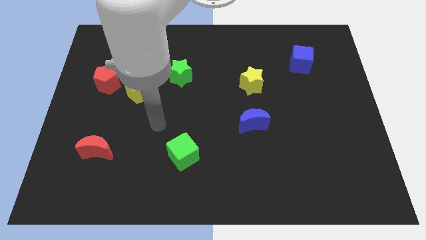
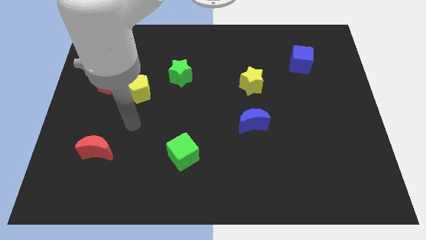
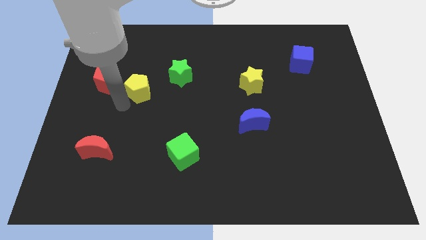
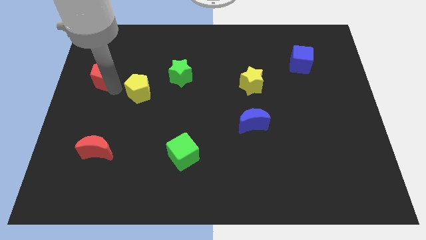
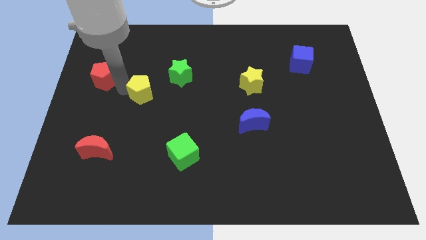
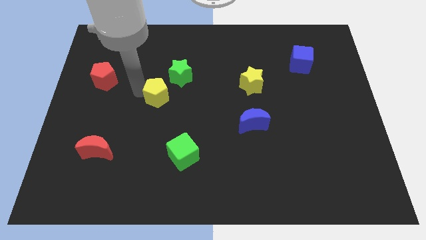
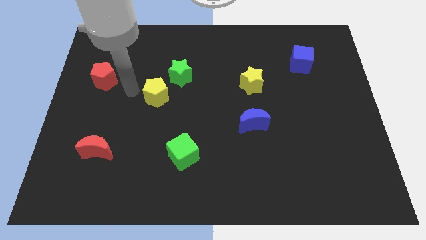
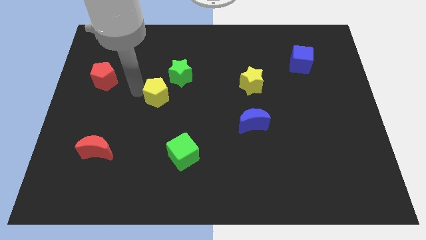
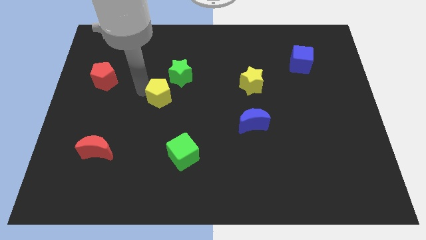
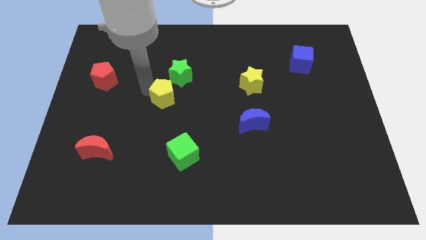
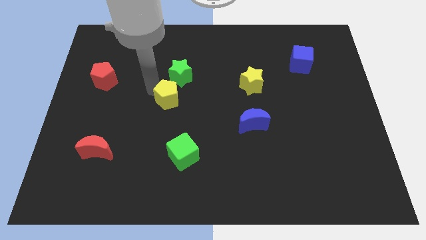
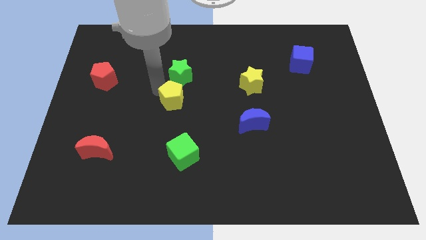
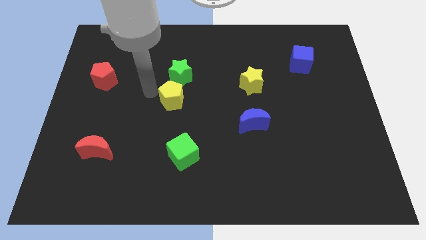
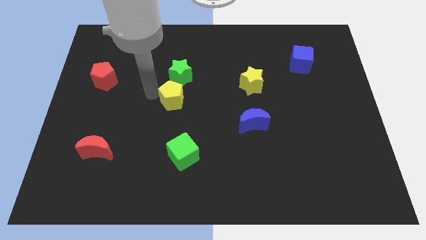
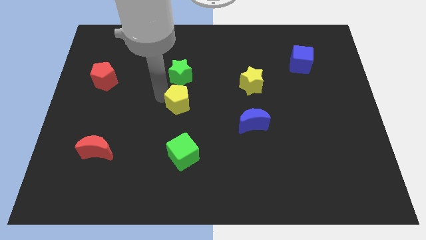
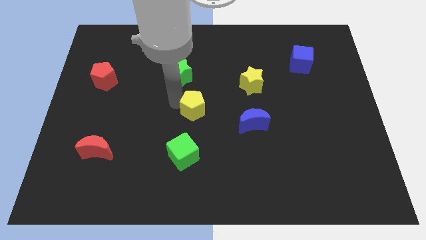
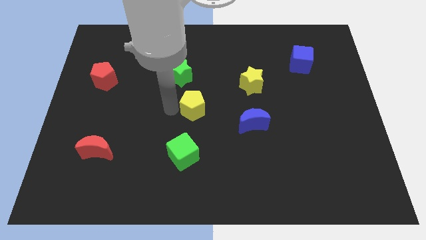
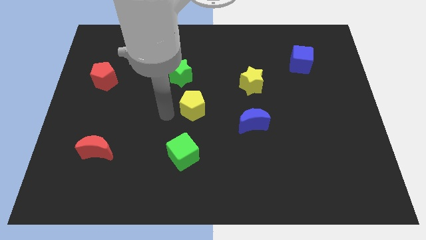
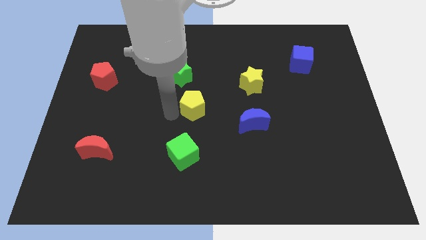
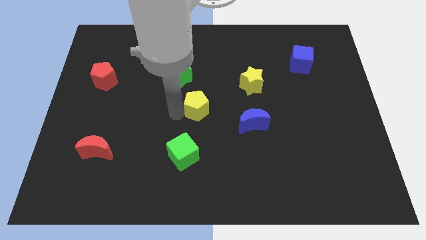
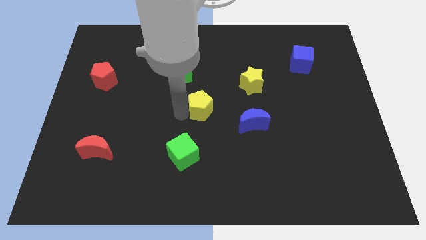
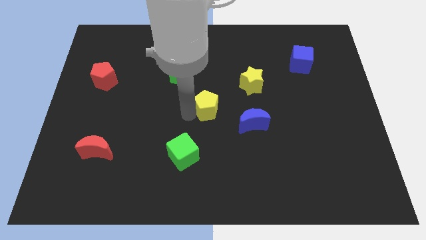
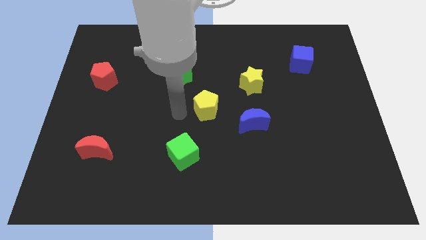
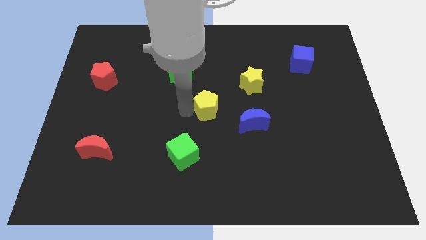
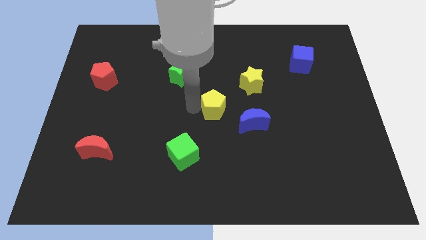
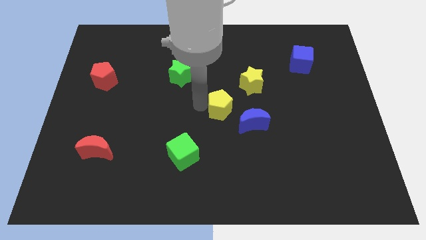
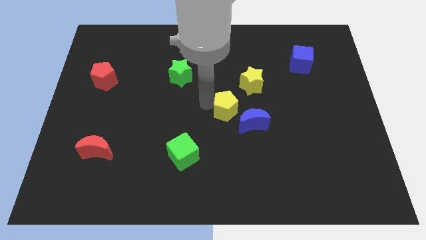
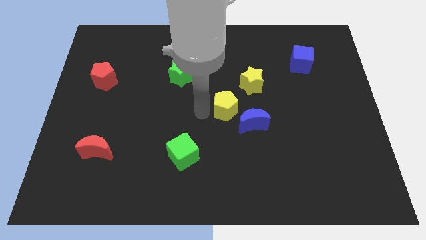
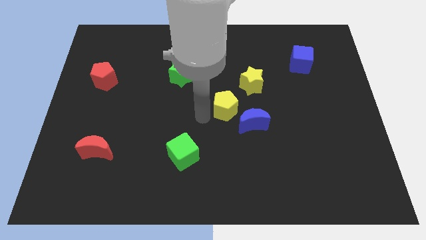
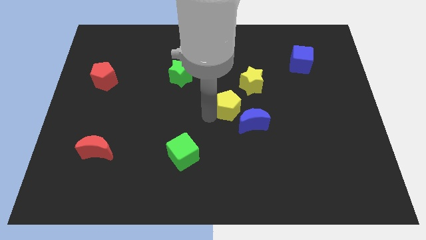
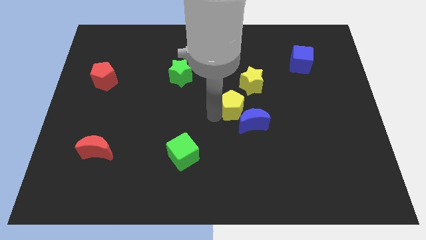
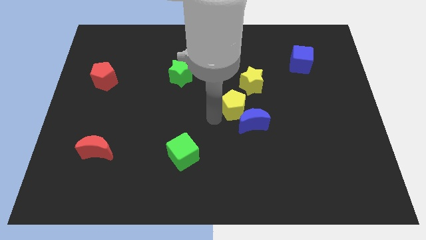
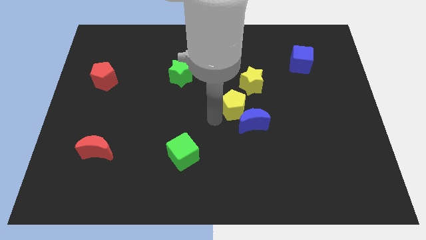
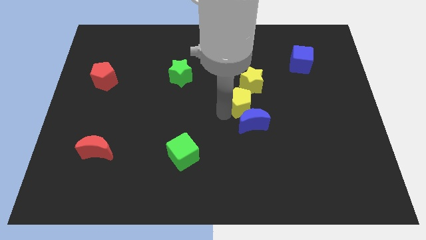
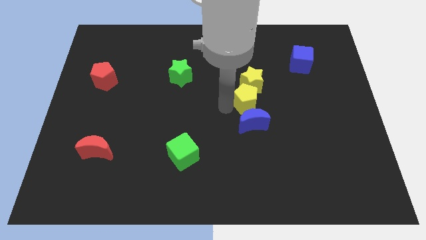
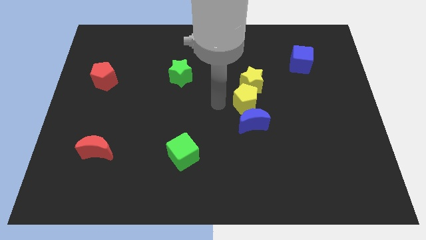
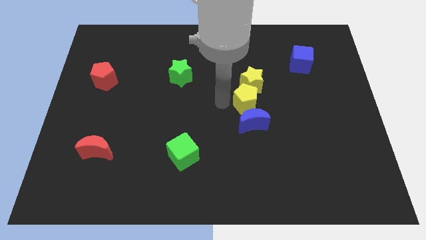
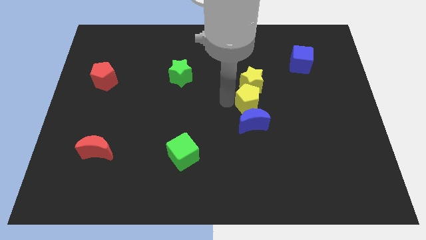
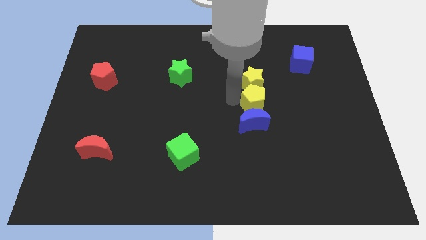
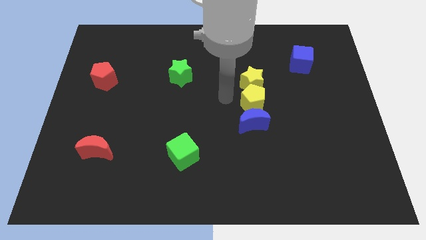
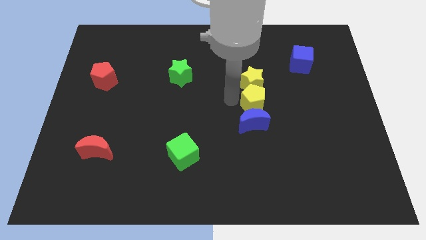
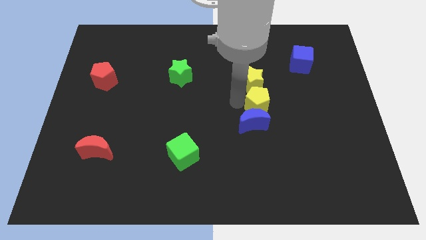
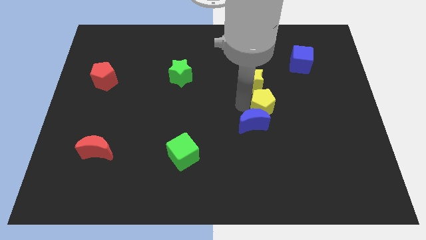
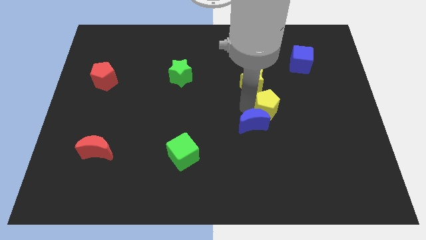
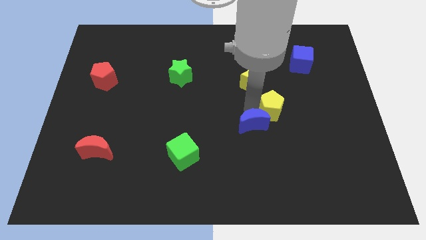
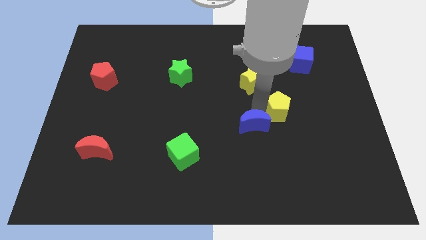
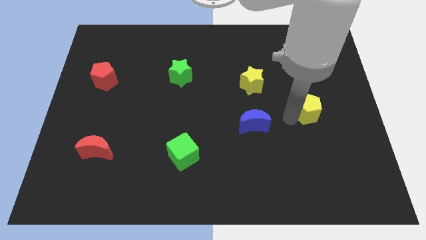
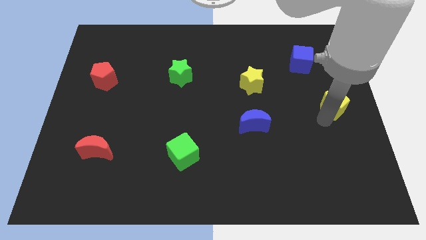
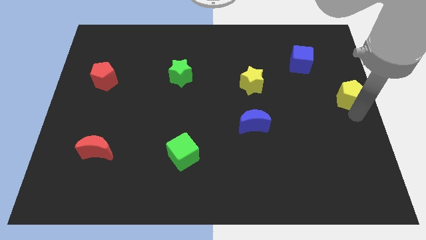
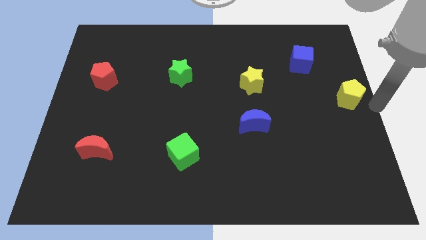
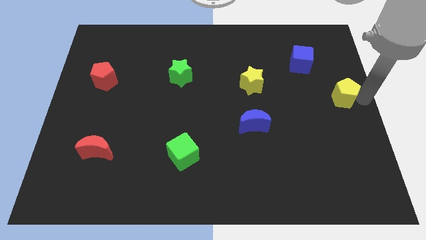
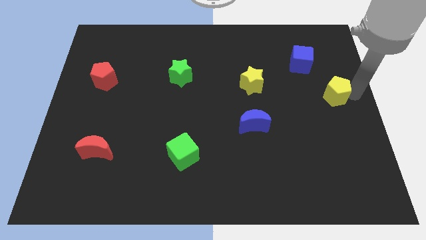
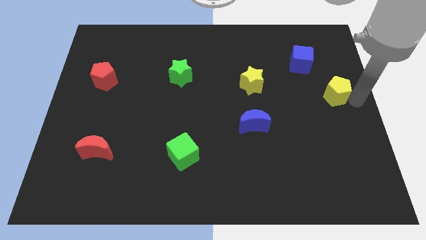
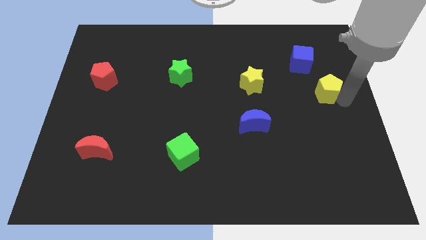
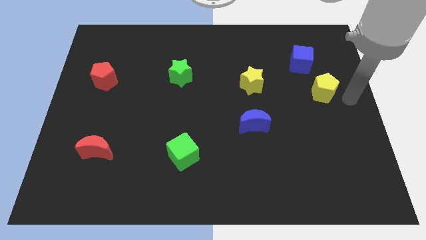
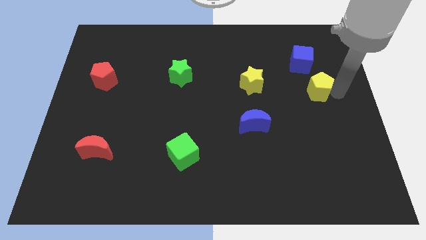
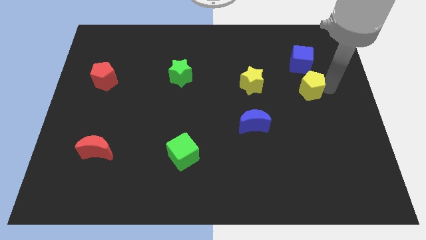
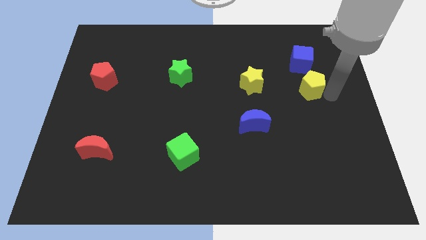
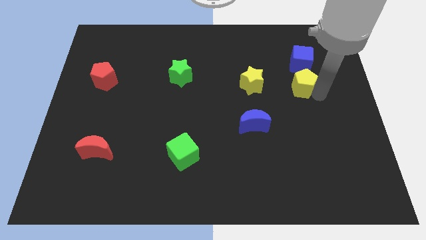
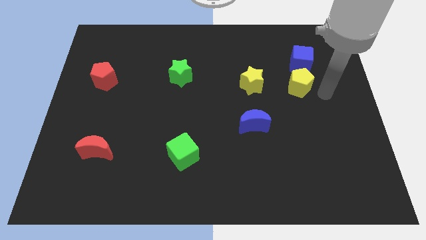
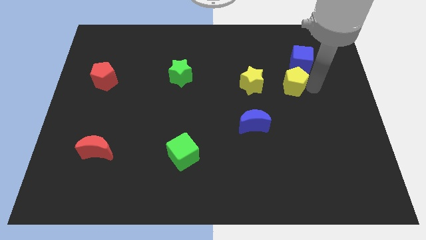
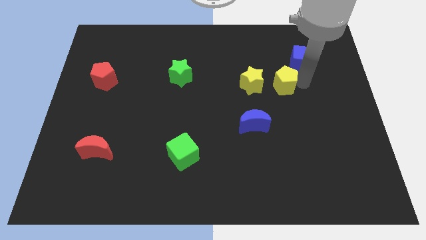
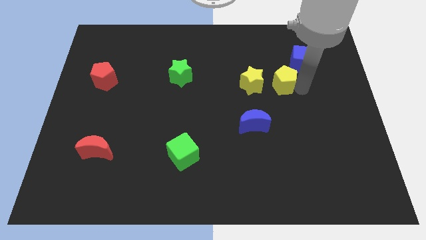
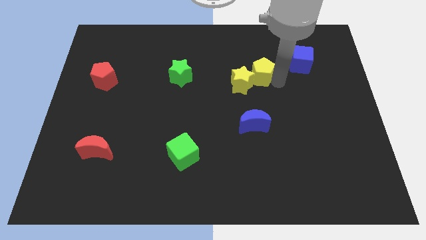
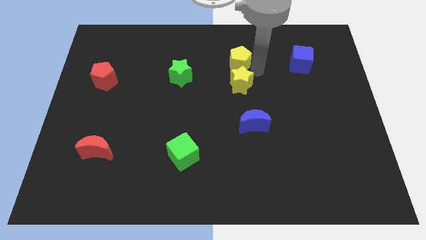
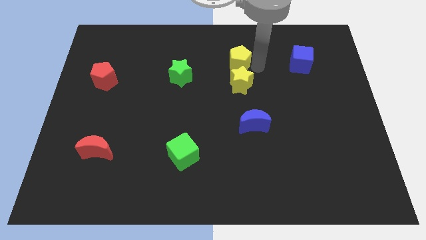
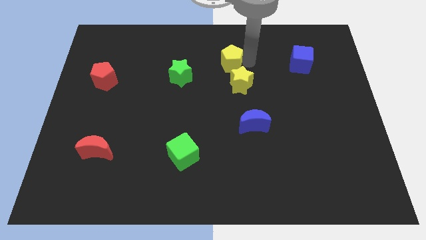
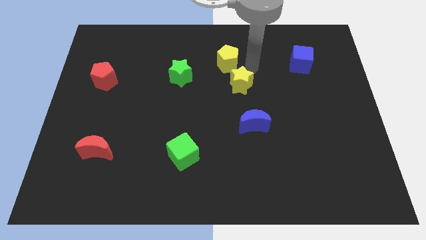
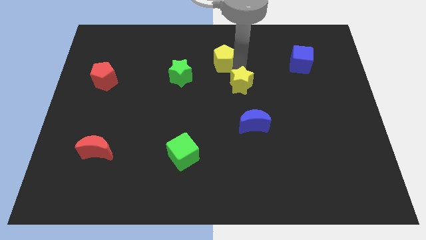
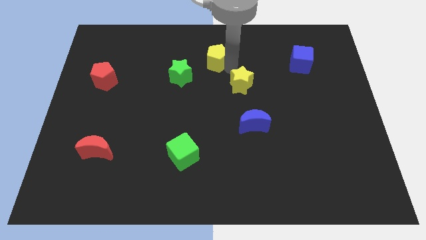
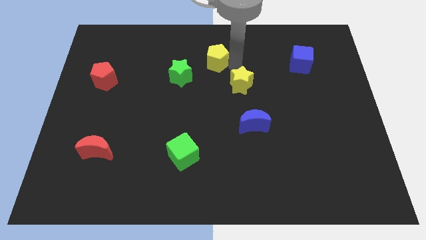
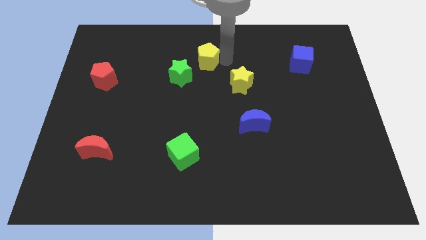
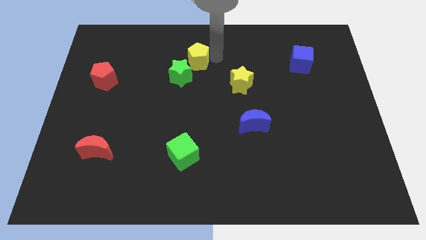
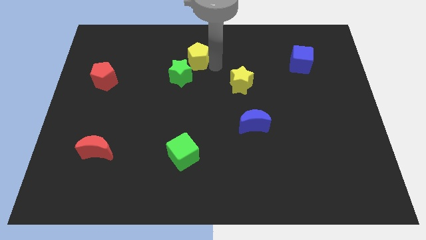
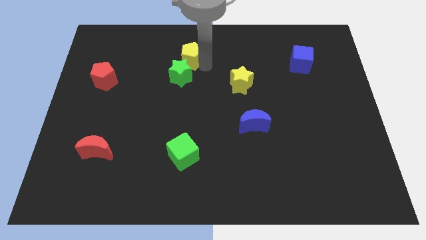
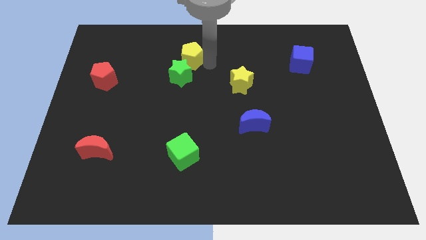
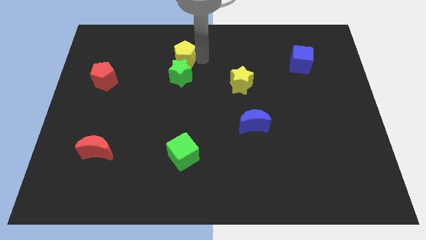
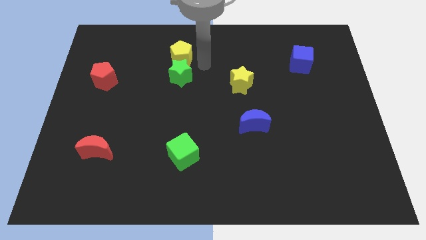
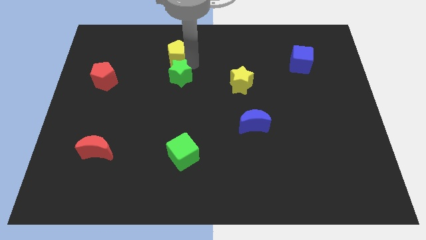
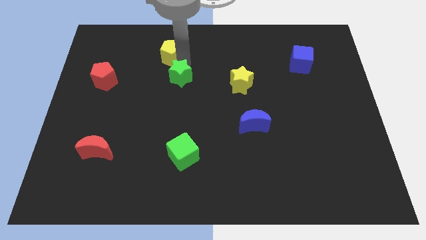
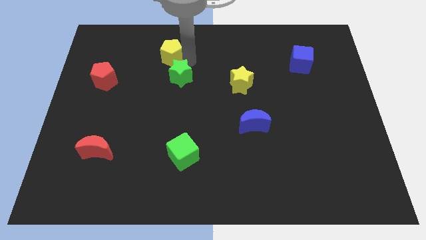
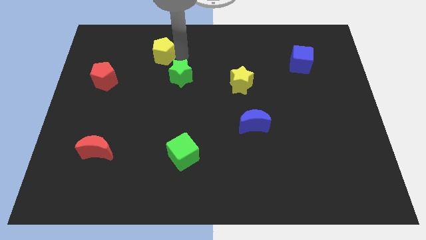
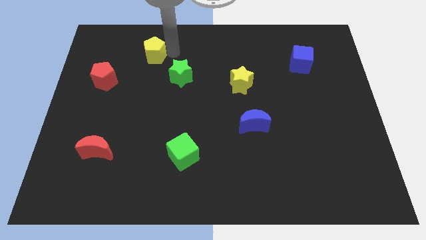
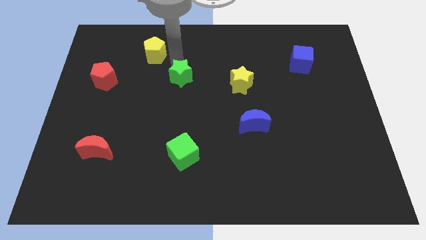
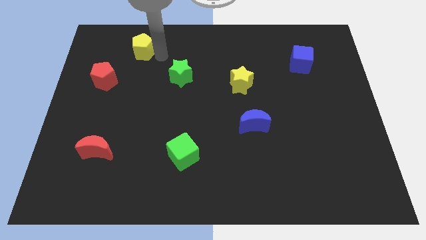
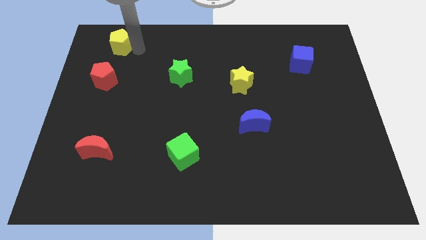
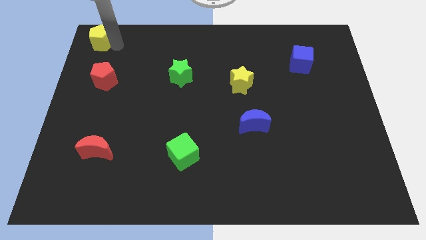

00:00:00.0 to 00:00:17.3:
push the yellow pentagon to the upper left corner
